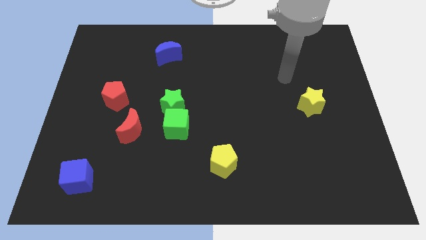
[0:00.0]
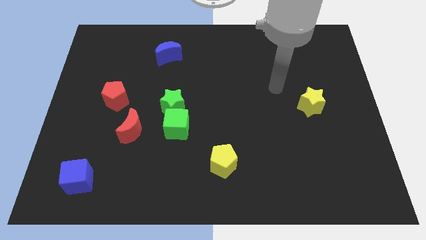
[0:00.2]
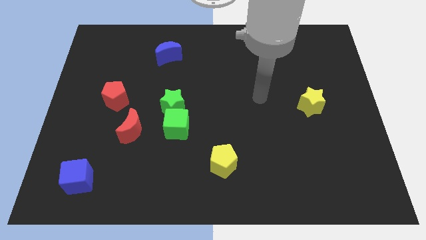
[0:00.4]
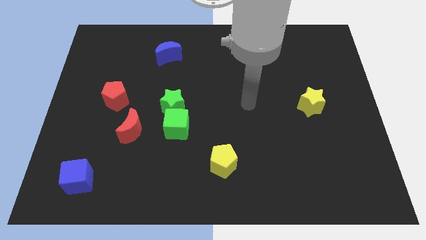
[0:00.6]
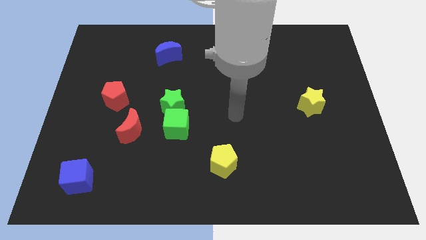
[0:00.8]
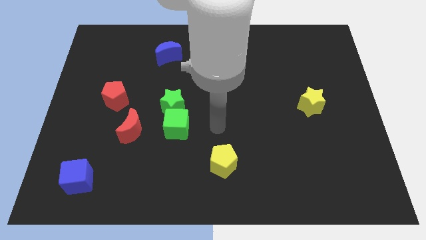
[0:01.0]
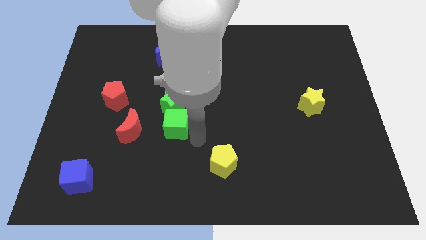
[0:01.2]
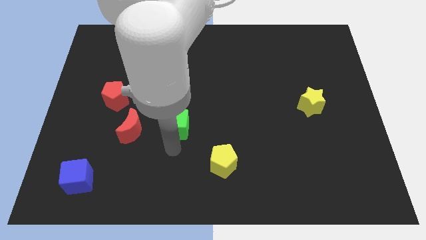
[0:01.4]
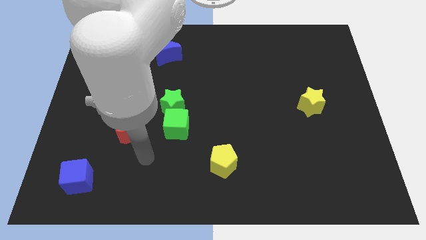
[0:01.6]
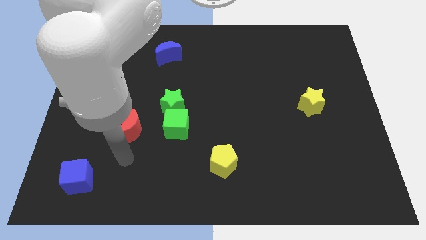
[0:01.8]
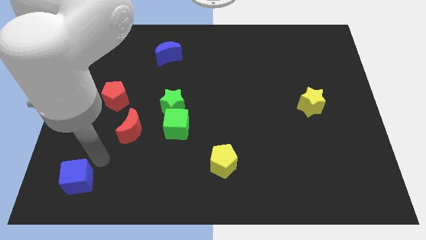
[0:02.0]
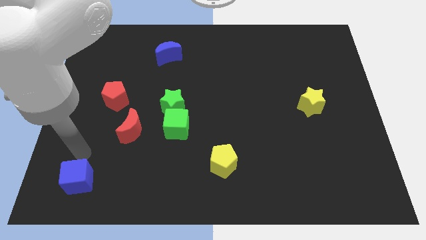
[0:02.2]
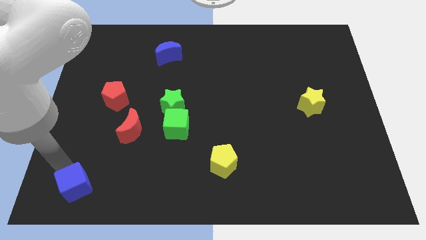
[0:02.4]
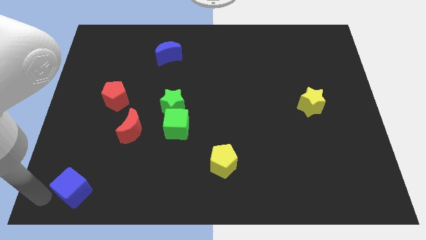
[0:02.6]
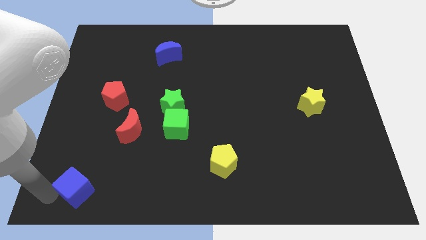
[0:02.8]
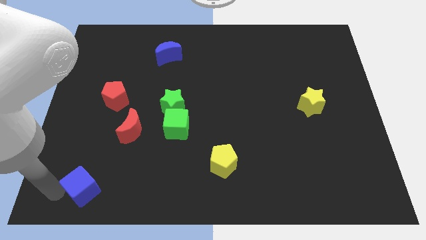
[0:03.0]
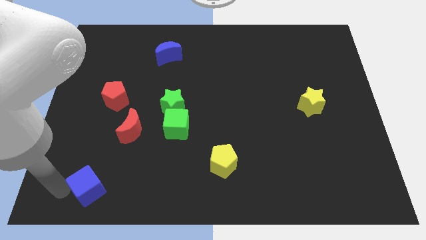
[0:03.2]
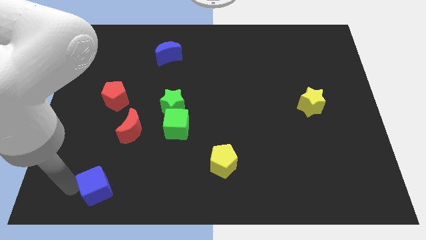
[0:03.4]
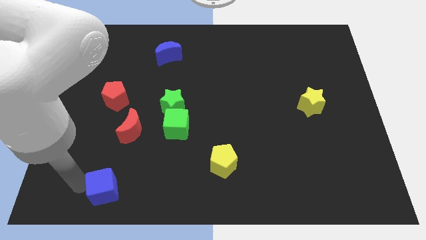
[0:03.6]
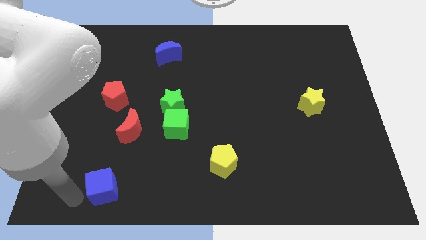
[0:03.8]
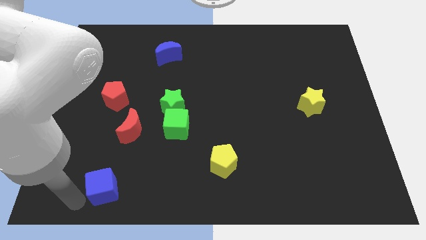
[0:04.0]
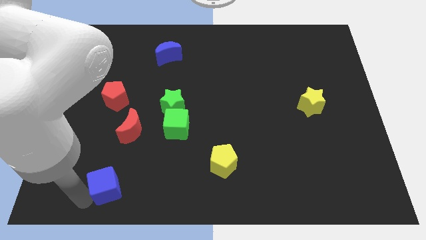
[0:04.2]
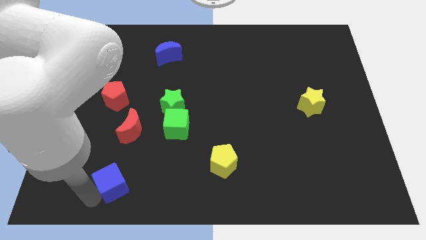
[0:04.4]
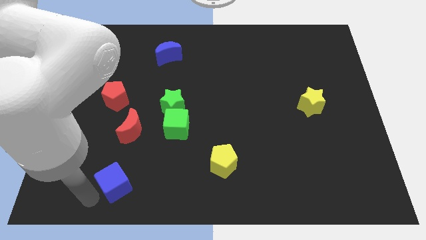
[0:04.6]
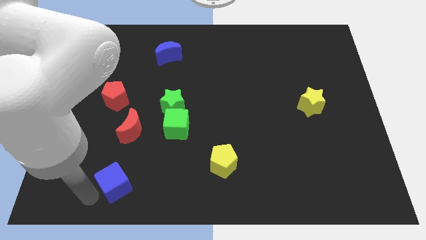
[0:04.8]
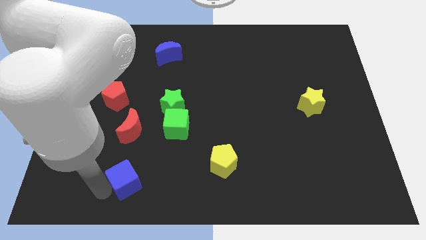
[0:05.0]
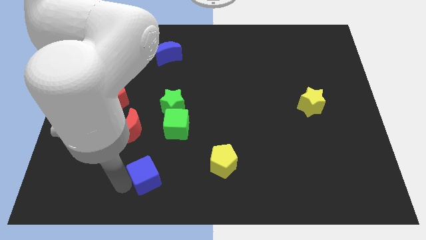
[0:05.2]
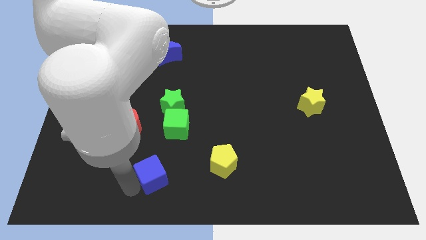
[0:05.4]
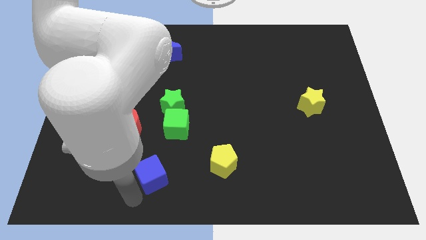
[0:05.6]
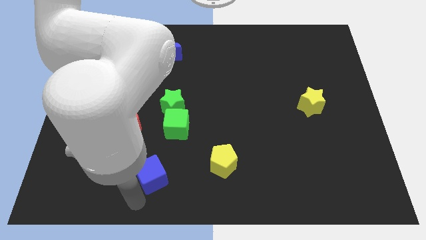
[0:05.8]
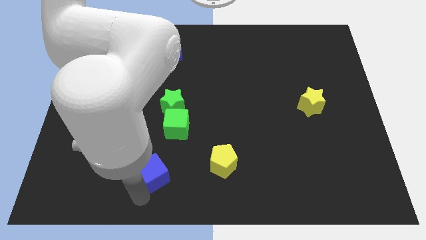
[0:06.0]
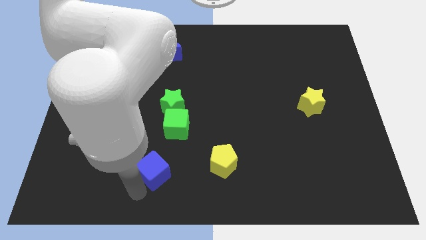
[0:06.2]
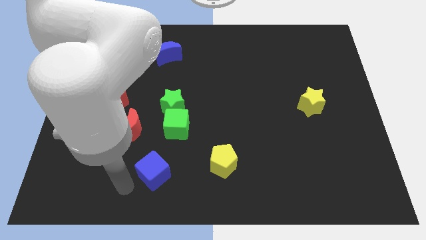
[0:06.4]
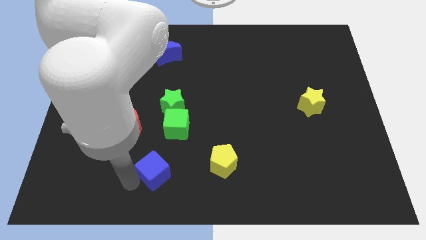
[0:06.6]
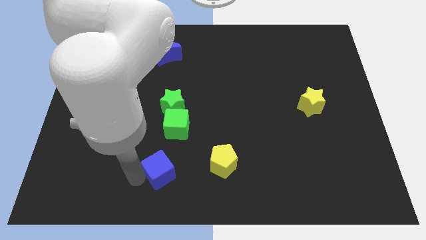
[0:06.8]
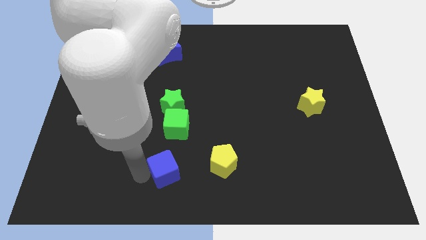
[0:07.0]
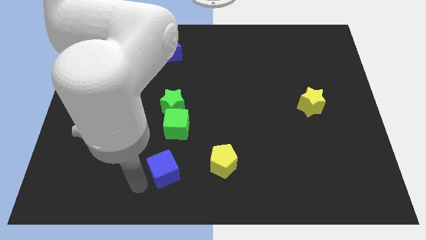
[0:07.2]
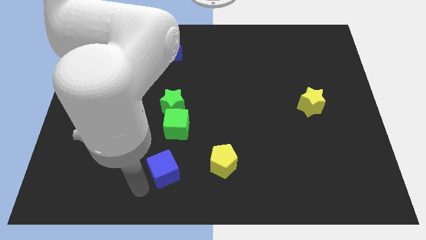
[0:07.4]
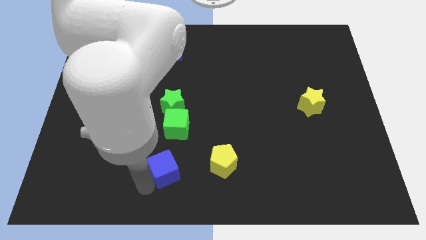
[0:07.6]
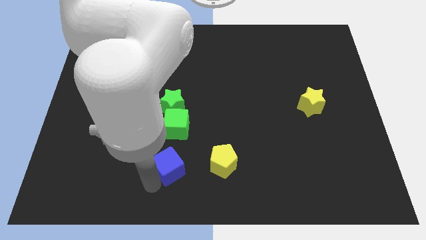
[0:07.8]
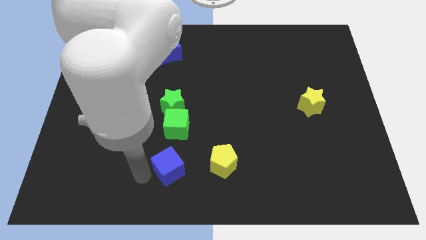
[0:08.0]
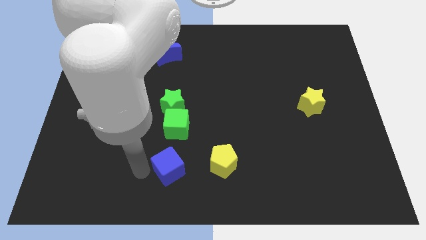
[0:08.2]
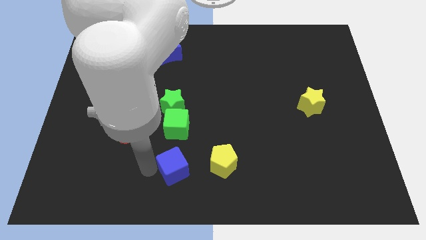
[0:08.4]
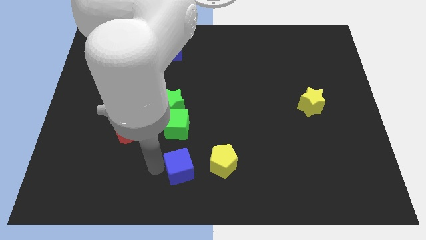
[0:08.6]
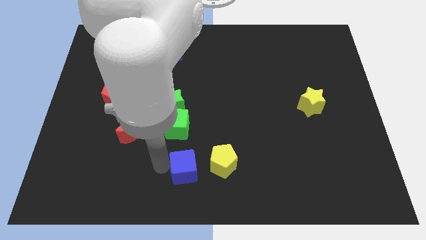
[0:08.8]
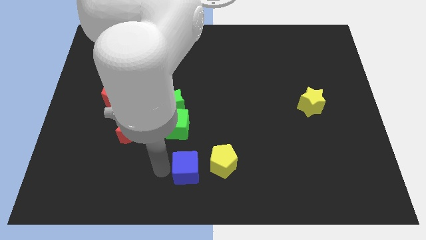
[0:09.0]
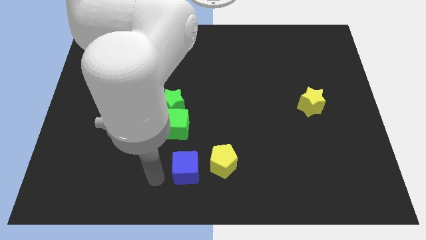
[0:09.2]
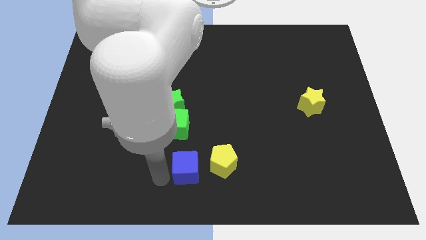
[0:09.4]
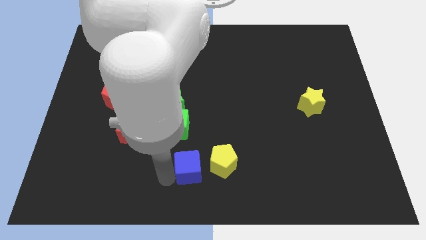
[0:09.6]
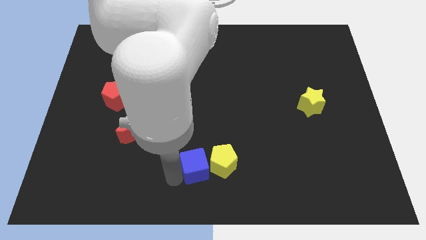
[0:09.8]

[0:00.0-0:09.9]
move the blue cube next to the yellow pentagon

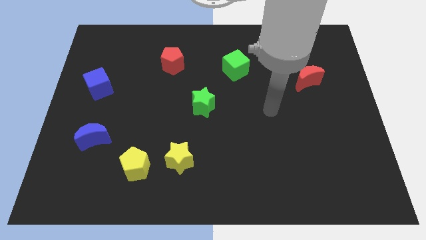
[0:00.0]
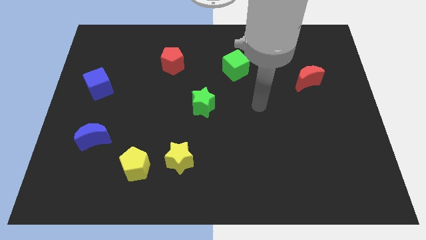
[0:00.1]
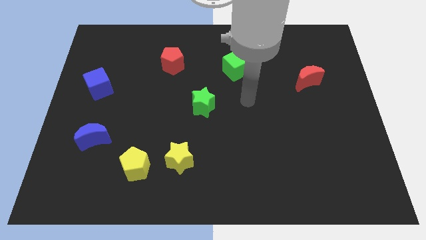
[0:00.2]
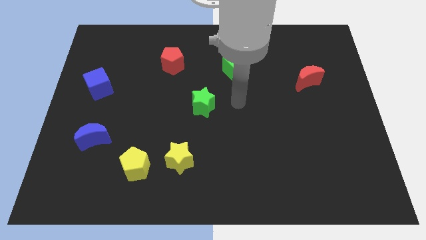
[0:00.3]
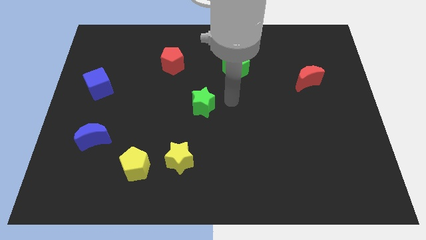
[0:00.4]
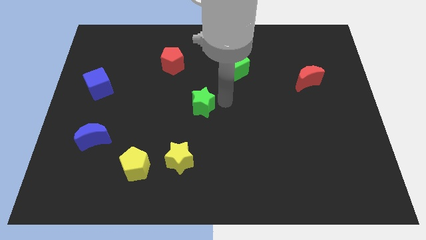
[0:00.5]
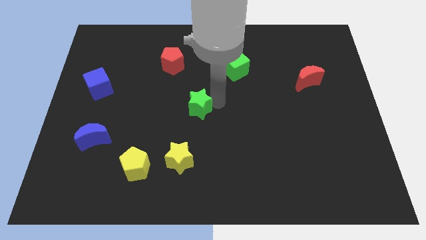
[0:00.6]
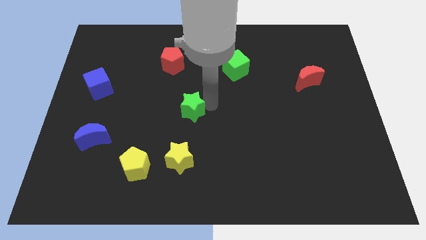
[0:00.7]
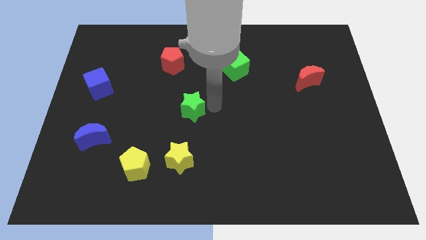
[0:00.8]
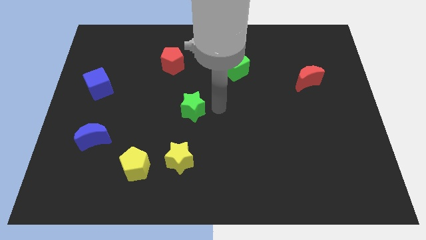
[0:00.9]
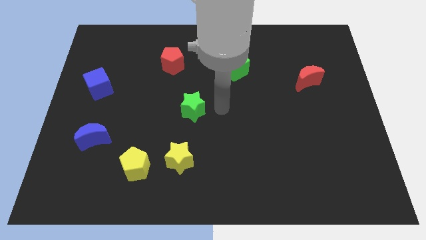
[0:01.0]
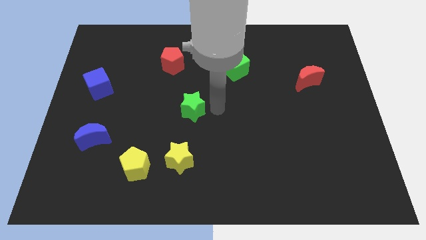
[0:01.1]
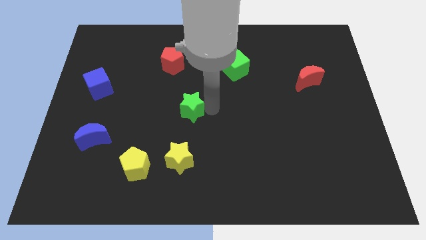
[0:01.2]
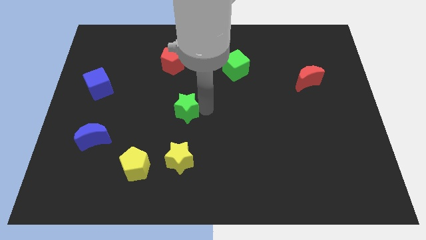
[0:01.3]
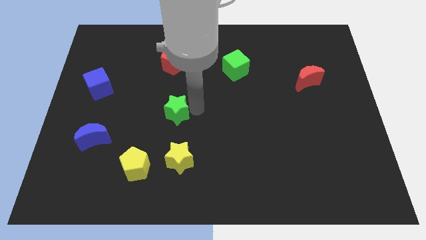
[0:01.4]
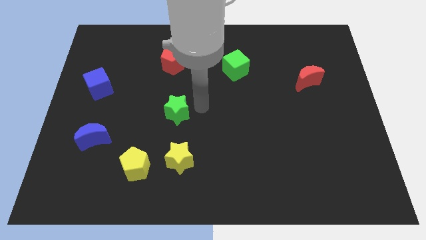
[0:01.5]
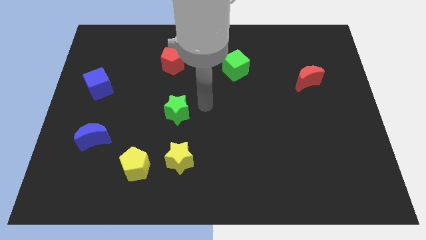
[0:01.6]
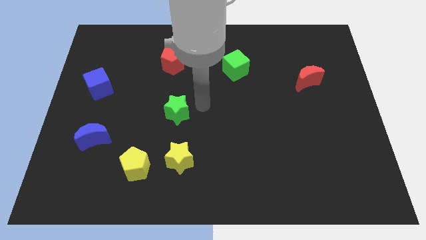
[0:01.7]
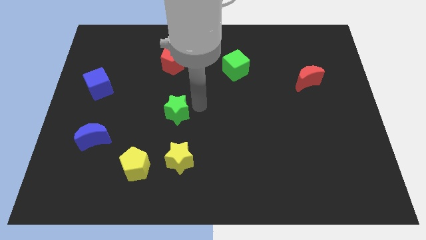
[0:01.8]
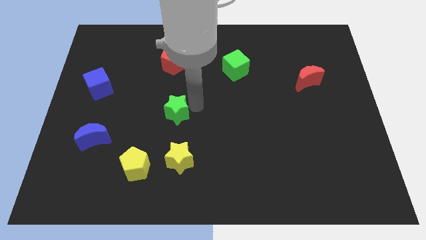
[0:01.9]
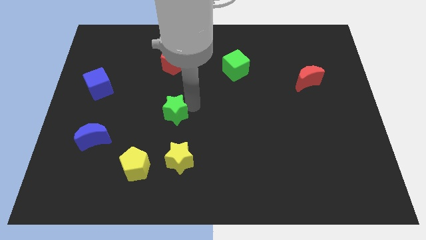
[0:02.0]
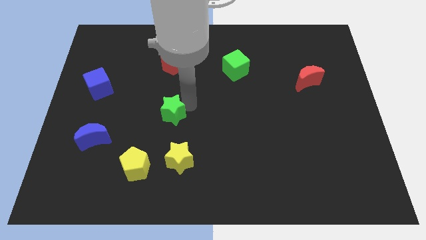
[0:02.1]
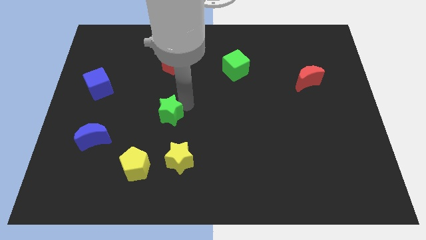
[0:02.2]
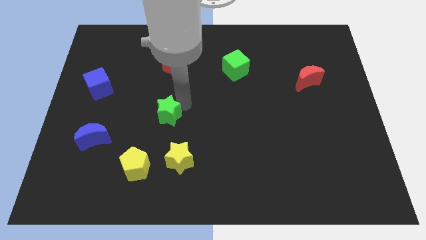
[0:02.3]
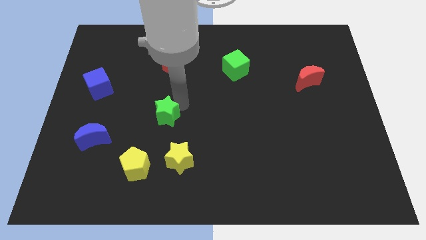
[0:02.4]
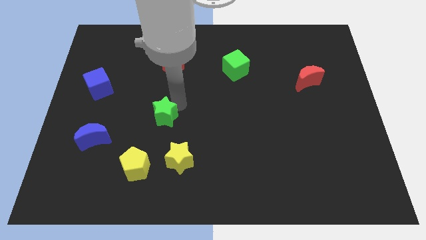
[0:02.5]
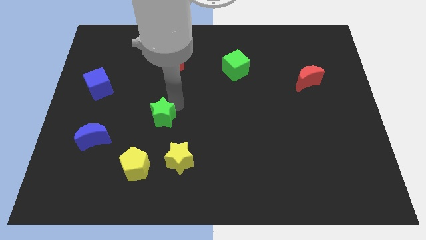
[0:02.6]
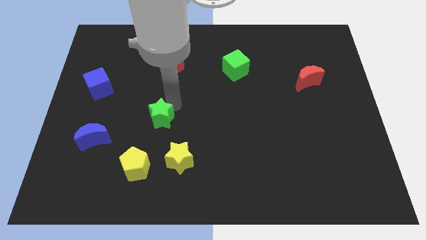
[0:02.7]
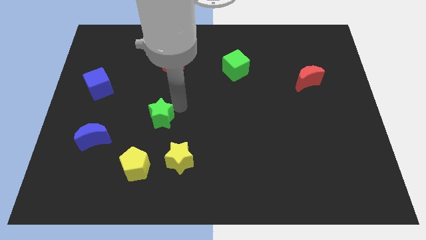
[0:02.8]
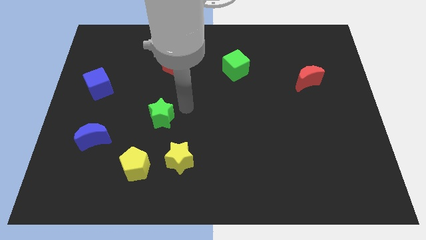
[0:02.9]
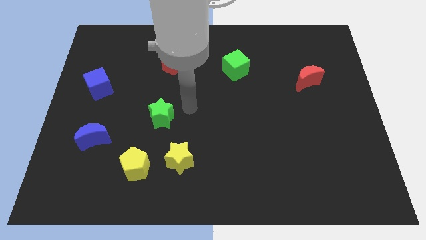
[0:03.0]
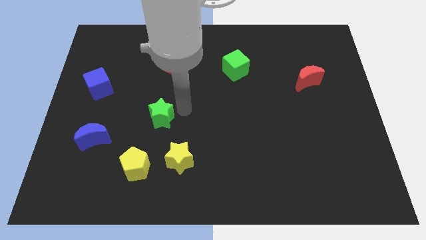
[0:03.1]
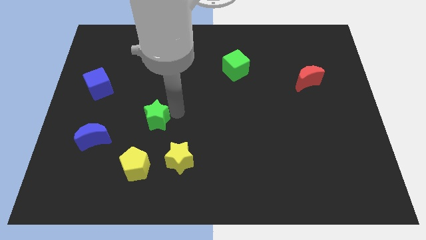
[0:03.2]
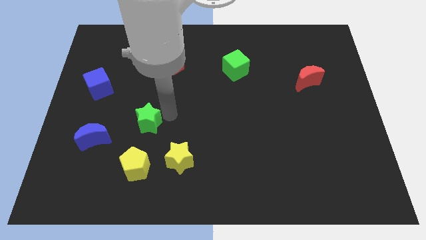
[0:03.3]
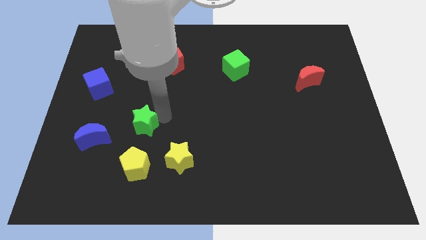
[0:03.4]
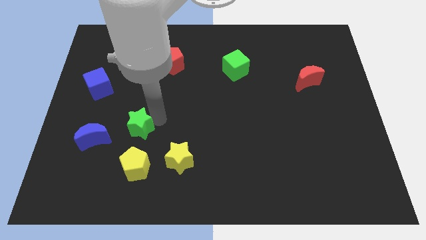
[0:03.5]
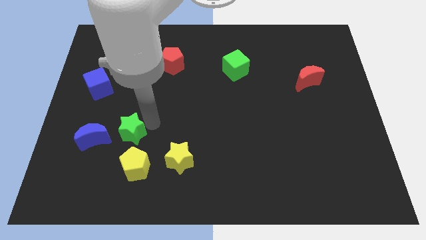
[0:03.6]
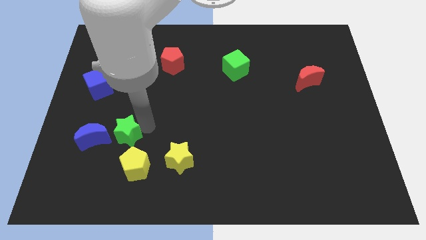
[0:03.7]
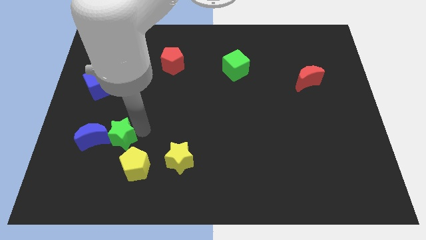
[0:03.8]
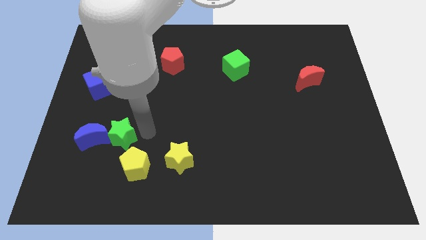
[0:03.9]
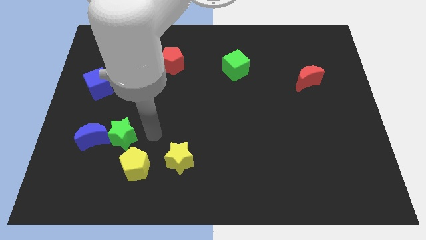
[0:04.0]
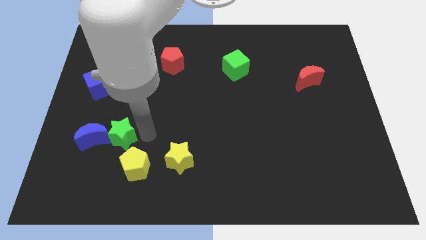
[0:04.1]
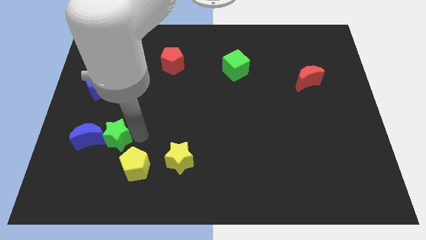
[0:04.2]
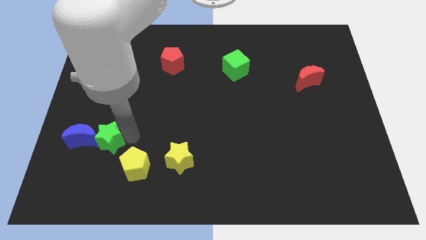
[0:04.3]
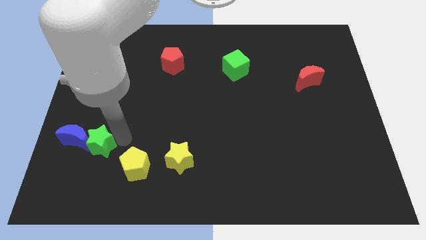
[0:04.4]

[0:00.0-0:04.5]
move the green star next to the blue moon
